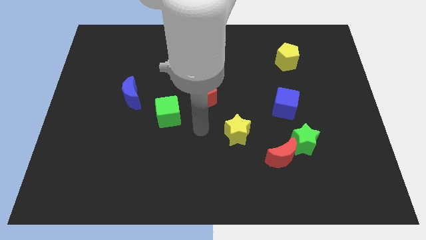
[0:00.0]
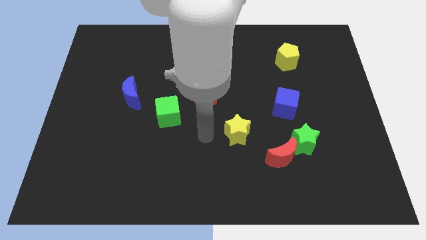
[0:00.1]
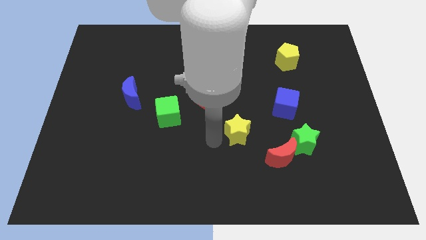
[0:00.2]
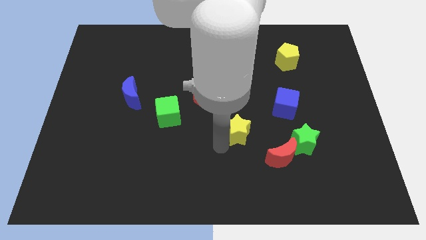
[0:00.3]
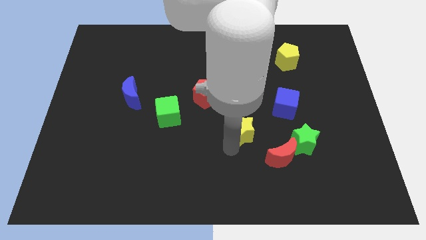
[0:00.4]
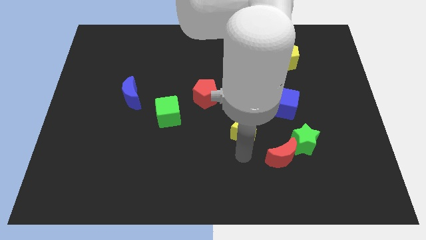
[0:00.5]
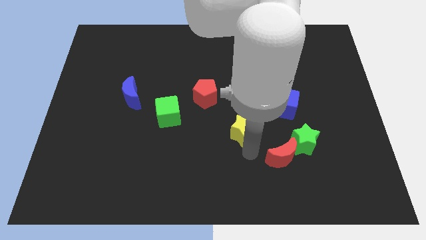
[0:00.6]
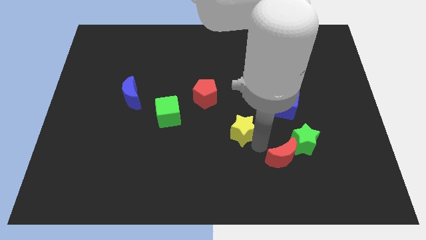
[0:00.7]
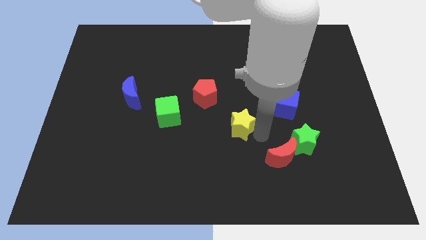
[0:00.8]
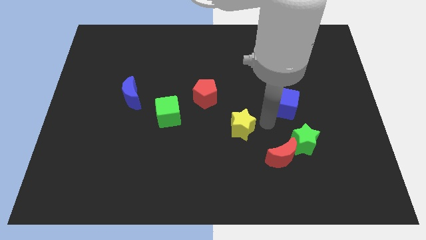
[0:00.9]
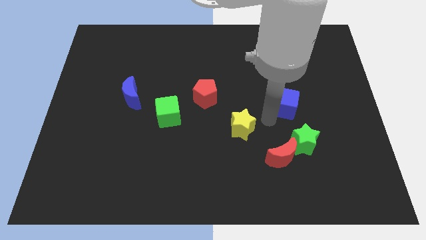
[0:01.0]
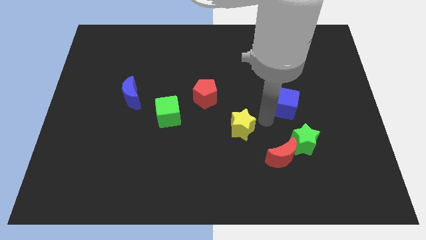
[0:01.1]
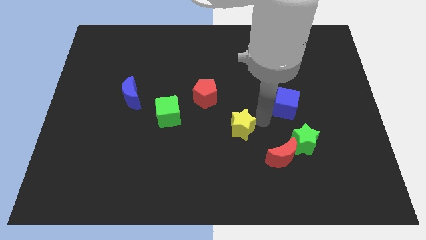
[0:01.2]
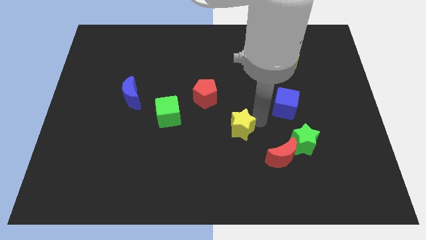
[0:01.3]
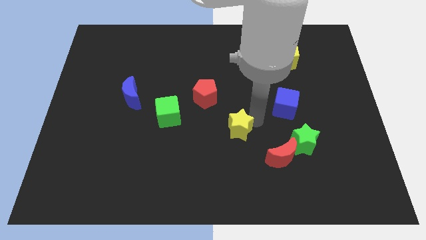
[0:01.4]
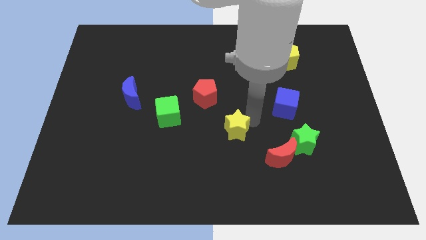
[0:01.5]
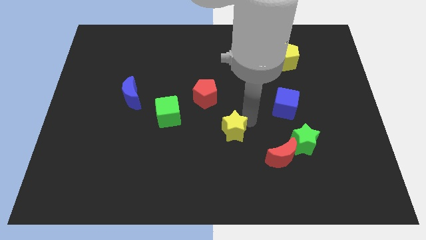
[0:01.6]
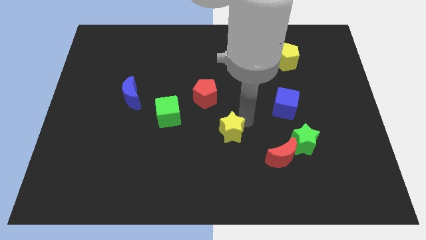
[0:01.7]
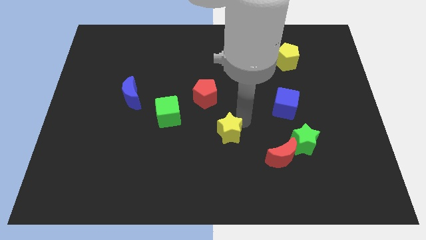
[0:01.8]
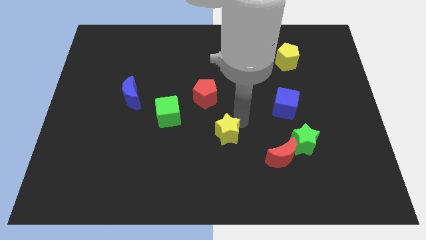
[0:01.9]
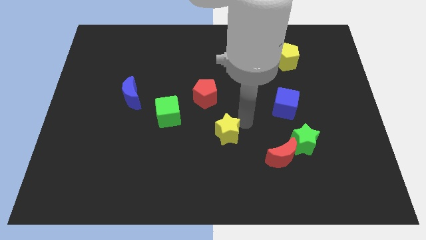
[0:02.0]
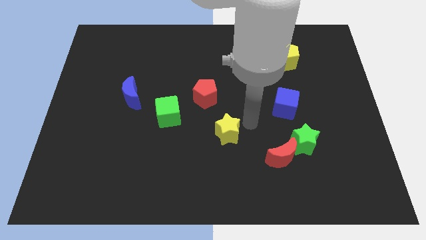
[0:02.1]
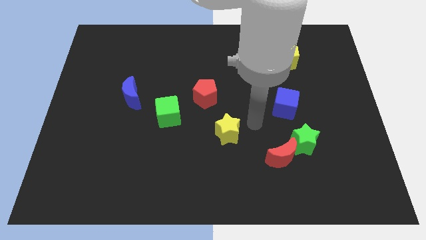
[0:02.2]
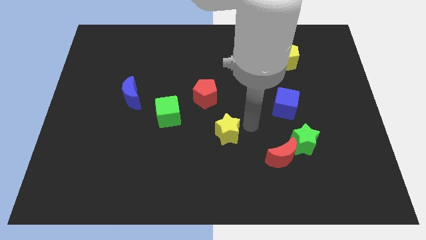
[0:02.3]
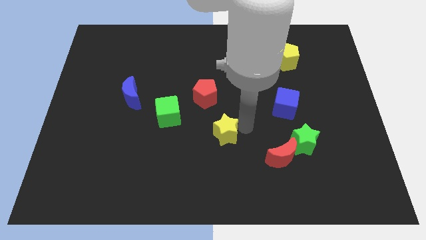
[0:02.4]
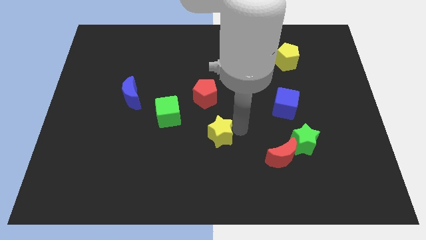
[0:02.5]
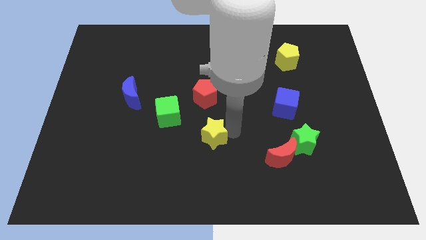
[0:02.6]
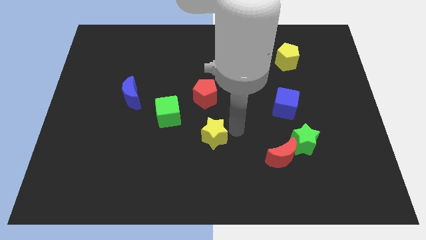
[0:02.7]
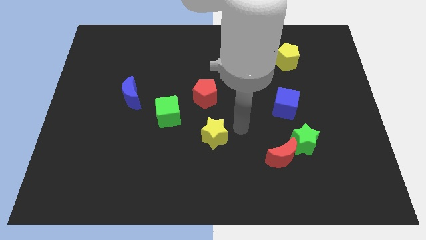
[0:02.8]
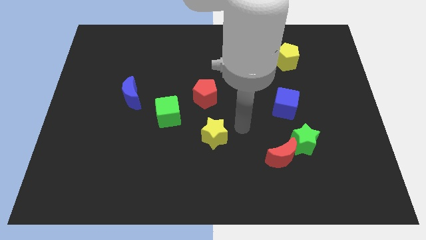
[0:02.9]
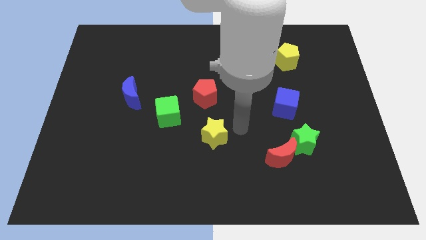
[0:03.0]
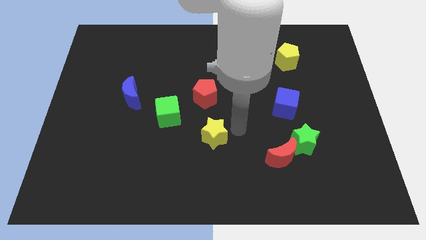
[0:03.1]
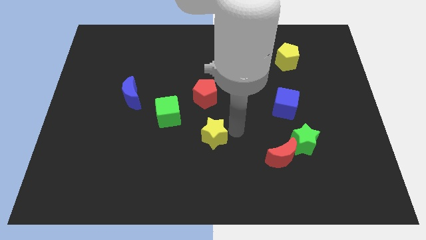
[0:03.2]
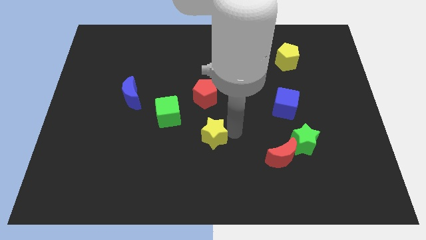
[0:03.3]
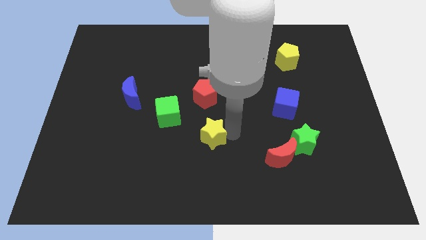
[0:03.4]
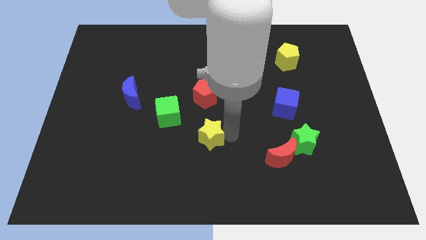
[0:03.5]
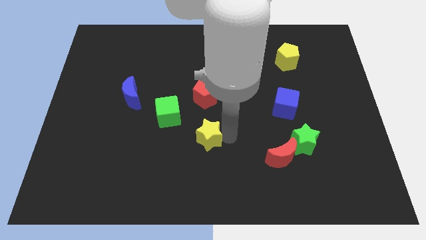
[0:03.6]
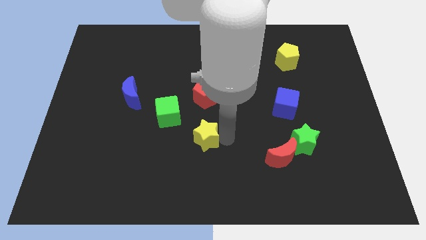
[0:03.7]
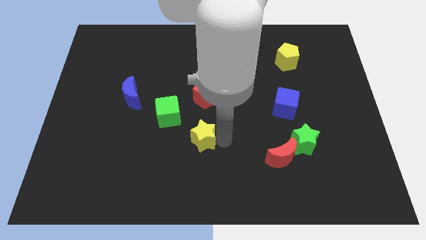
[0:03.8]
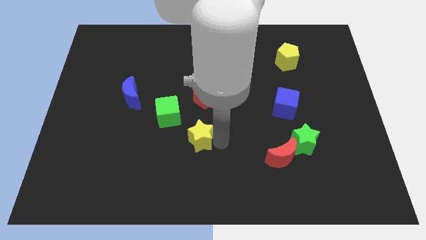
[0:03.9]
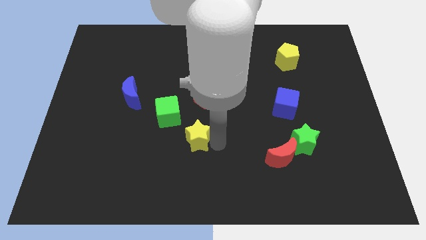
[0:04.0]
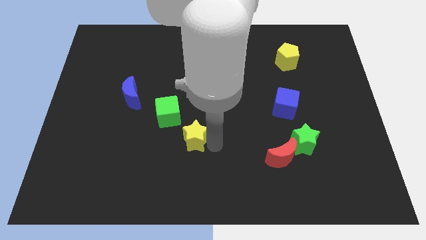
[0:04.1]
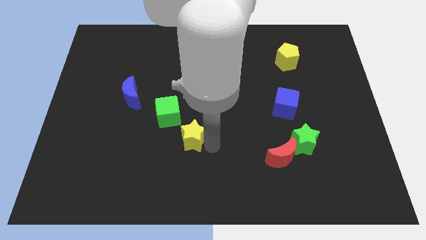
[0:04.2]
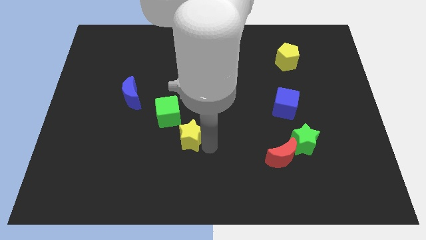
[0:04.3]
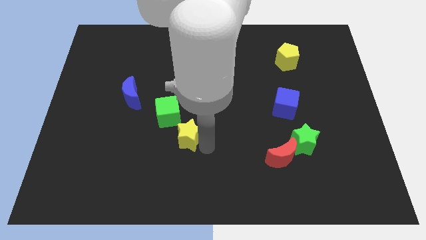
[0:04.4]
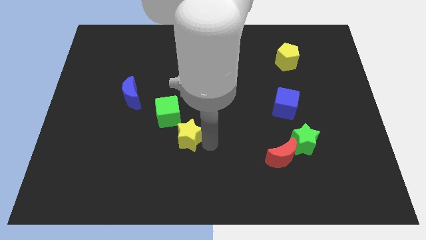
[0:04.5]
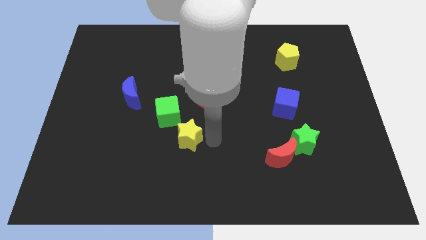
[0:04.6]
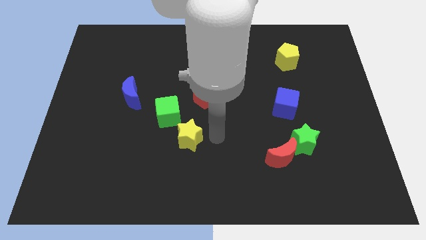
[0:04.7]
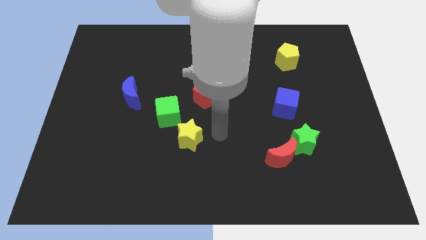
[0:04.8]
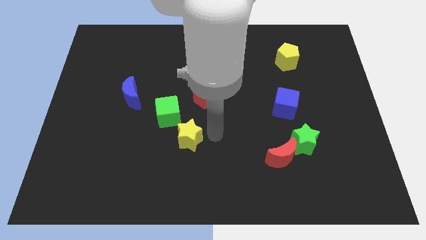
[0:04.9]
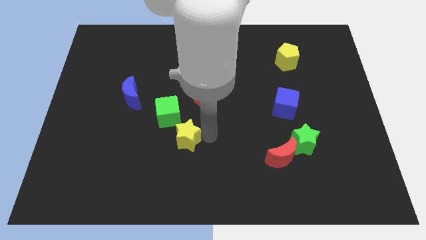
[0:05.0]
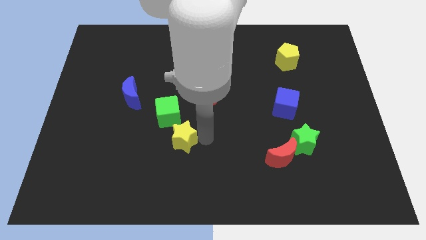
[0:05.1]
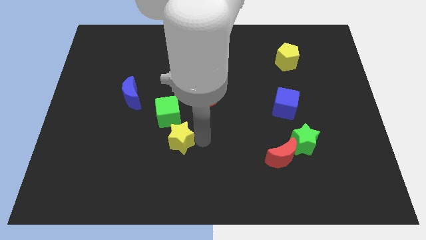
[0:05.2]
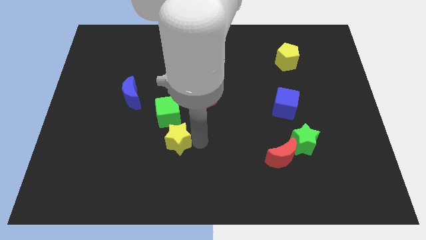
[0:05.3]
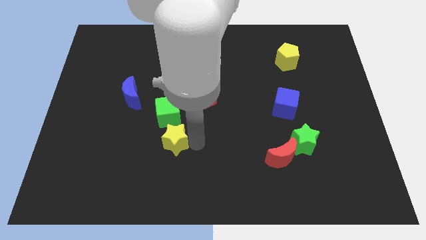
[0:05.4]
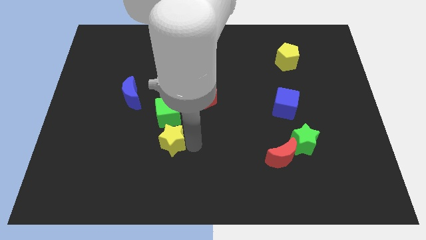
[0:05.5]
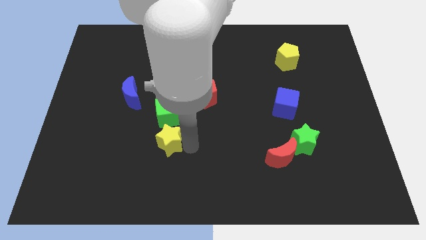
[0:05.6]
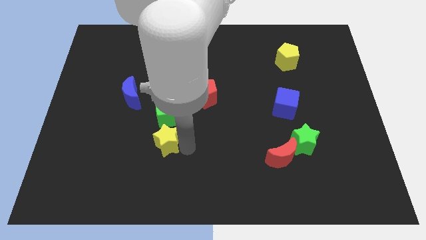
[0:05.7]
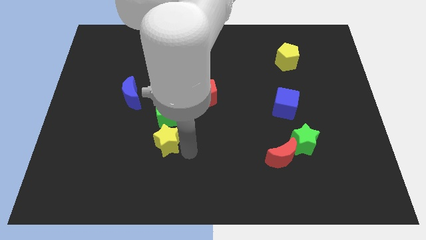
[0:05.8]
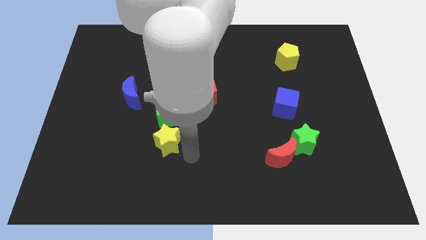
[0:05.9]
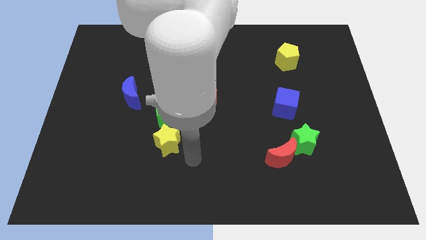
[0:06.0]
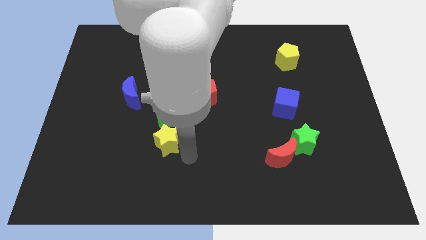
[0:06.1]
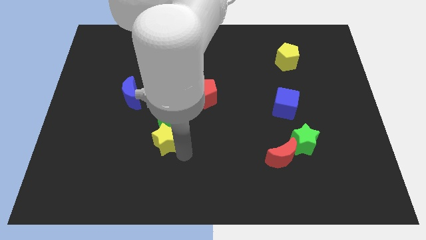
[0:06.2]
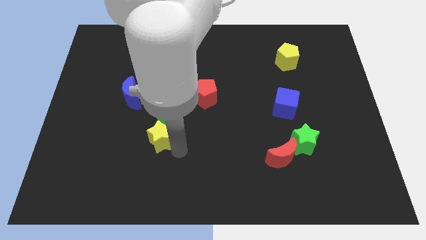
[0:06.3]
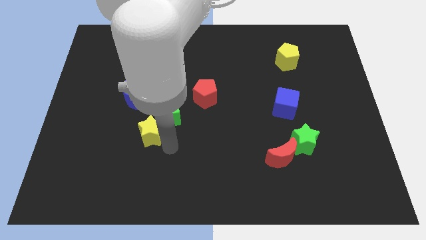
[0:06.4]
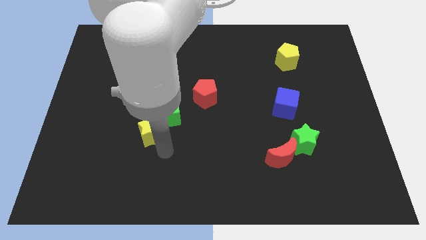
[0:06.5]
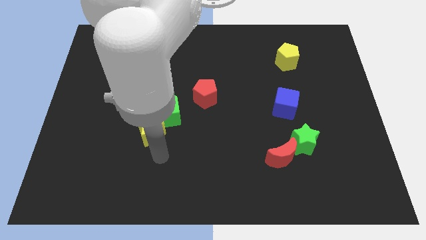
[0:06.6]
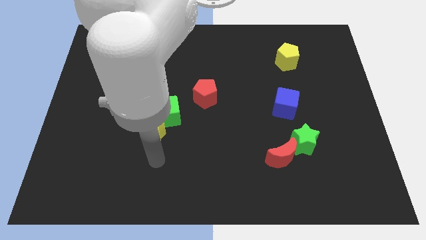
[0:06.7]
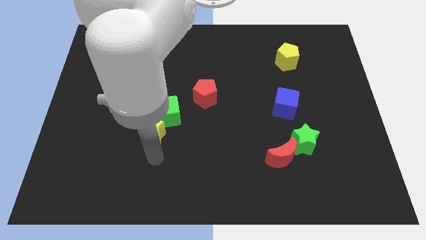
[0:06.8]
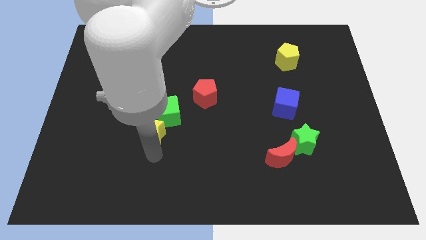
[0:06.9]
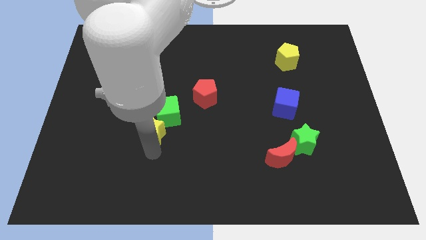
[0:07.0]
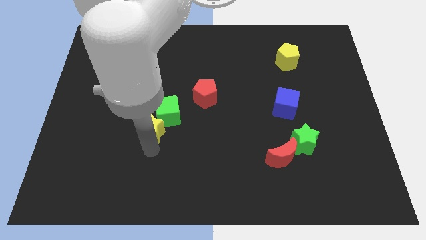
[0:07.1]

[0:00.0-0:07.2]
move the yellow star diagonally down and to the right of the blue moon
